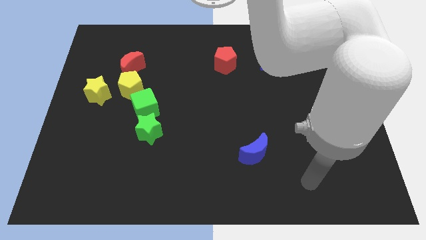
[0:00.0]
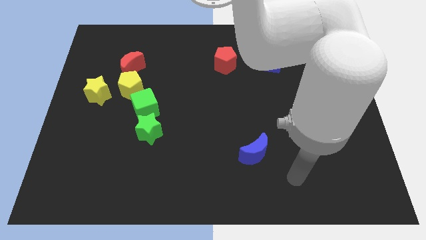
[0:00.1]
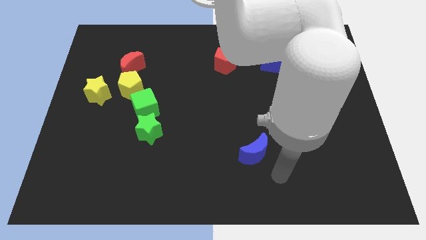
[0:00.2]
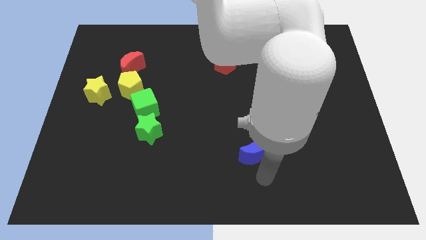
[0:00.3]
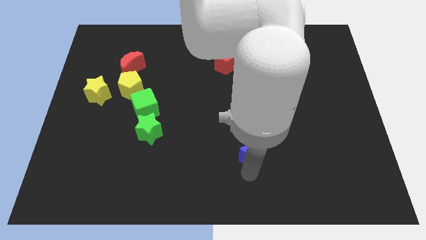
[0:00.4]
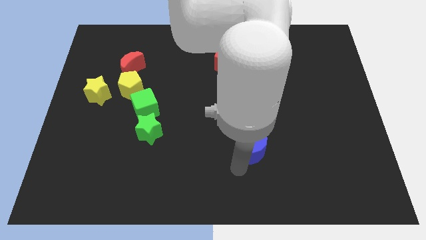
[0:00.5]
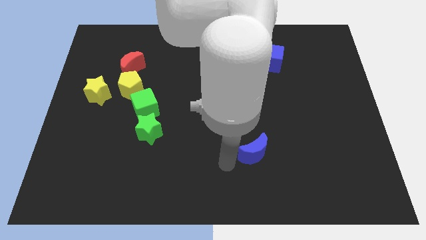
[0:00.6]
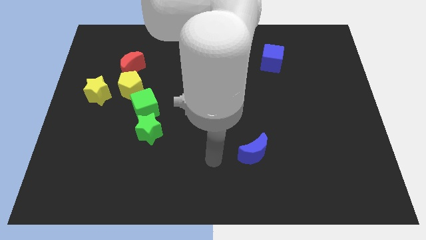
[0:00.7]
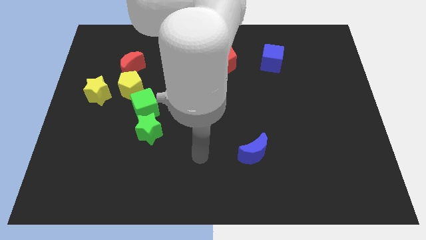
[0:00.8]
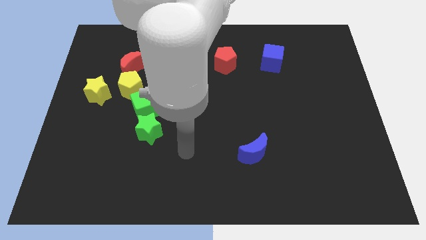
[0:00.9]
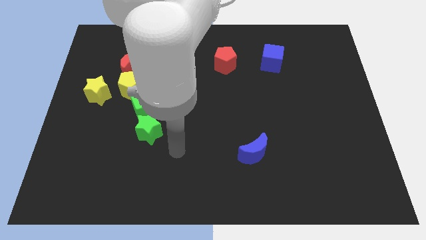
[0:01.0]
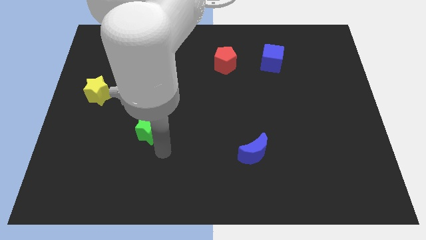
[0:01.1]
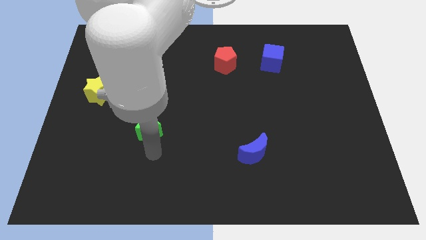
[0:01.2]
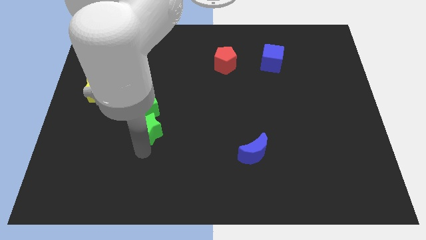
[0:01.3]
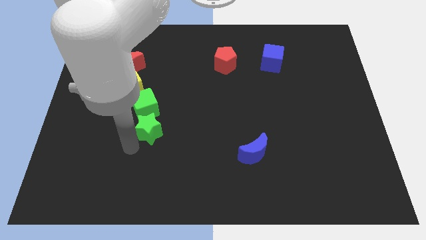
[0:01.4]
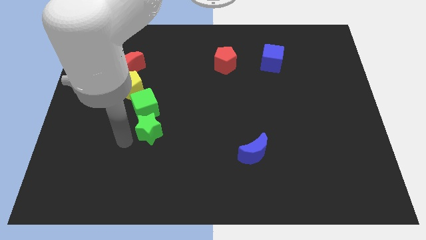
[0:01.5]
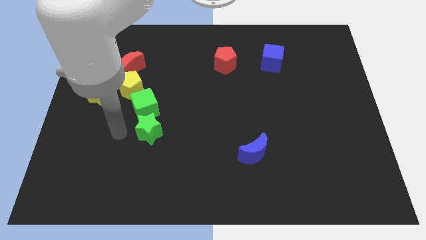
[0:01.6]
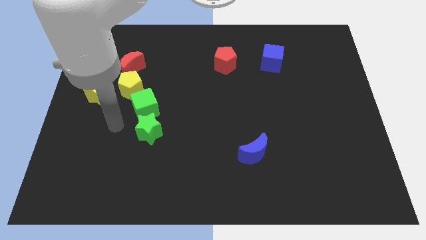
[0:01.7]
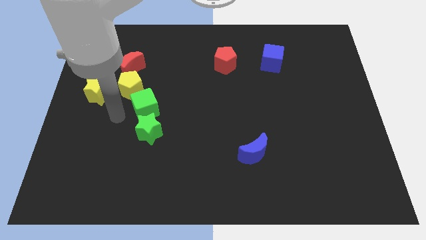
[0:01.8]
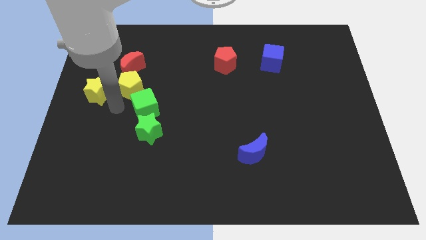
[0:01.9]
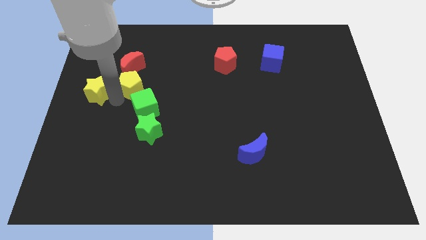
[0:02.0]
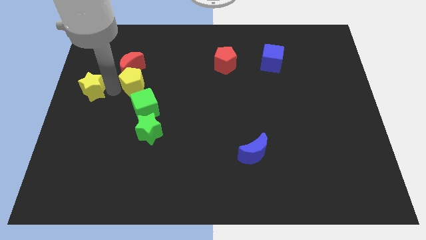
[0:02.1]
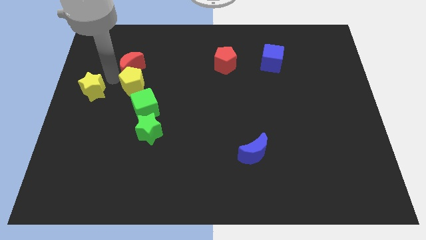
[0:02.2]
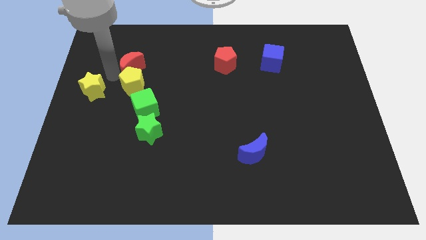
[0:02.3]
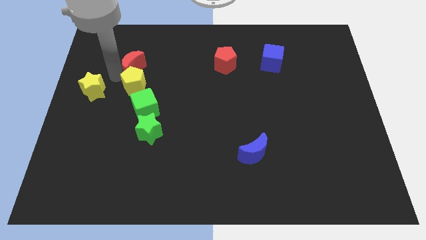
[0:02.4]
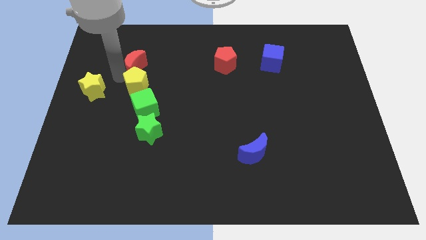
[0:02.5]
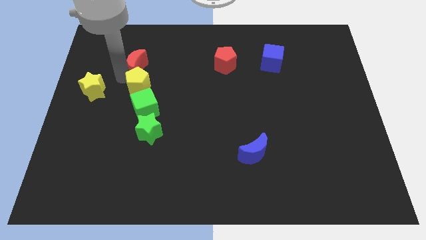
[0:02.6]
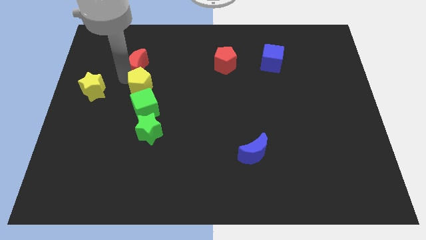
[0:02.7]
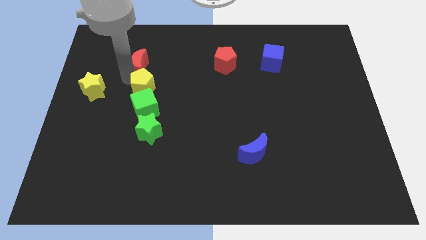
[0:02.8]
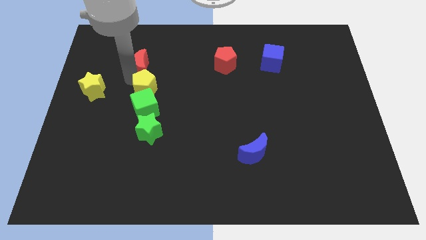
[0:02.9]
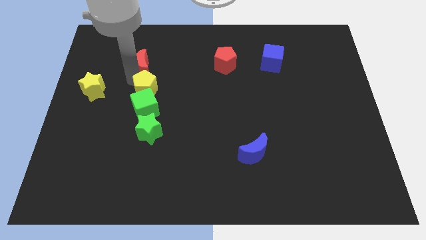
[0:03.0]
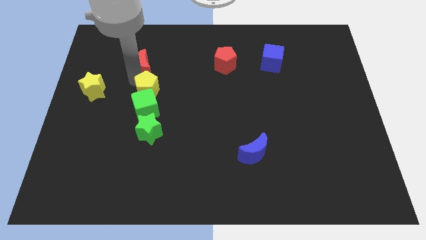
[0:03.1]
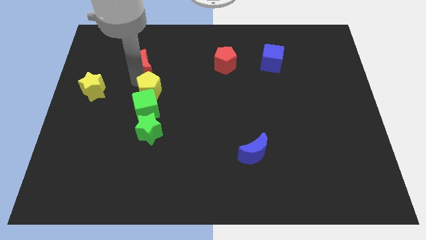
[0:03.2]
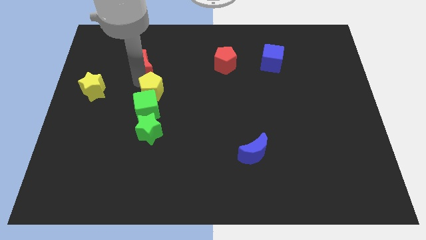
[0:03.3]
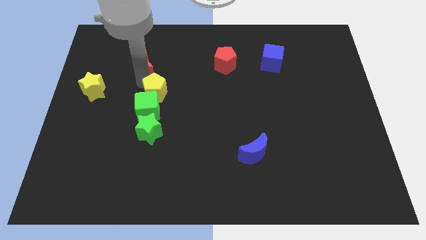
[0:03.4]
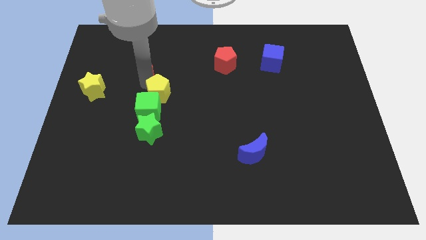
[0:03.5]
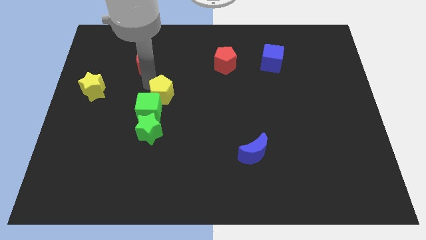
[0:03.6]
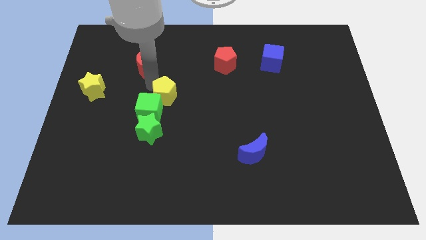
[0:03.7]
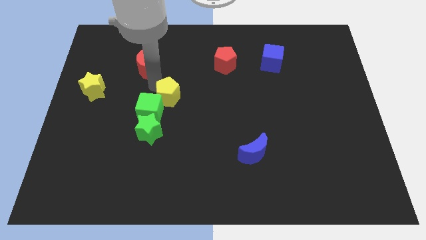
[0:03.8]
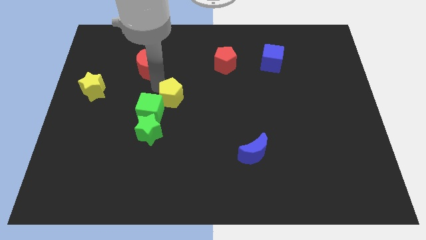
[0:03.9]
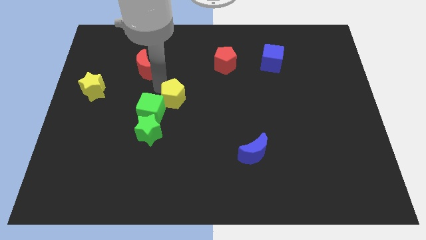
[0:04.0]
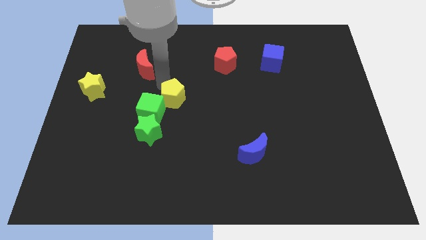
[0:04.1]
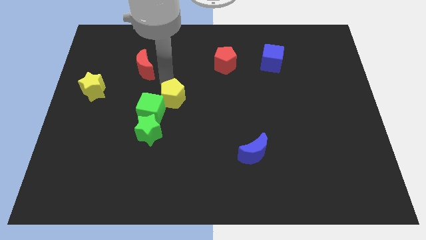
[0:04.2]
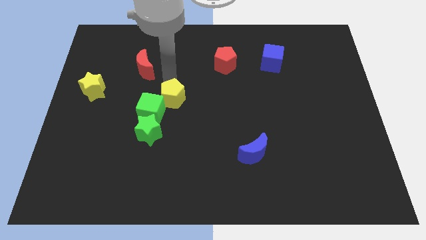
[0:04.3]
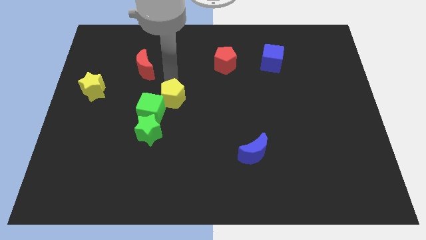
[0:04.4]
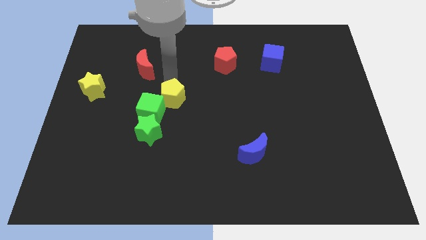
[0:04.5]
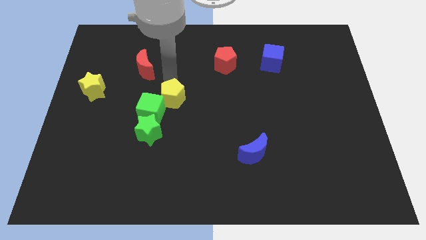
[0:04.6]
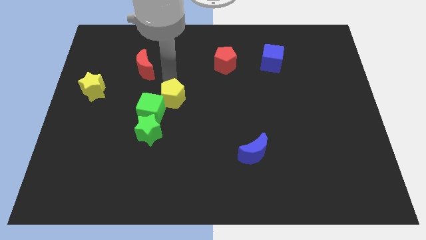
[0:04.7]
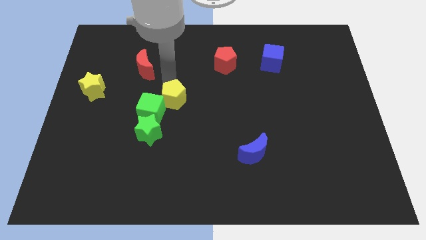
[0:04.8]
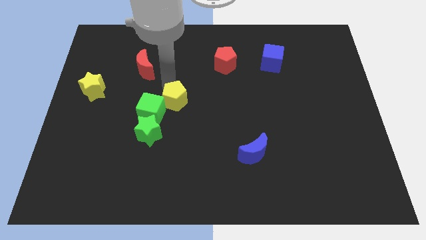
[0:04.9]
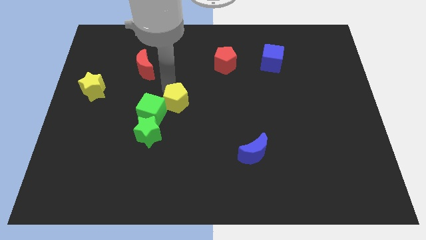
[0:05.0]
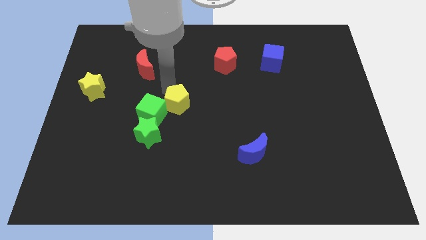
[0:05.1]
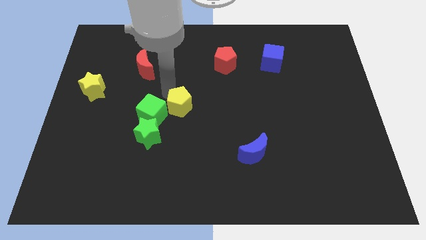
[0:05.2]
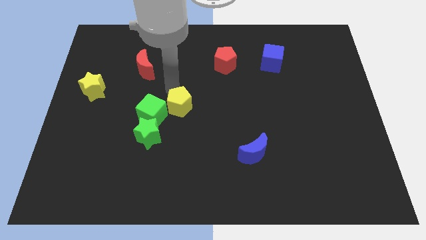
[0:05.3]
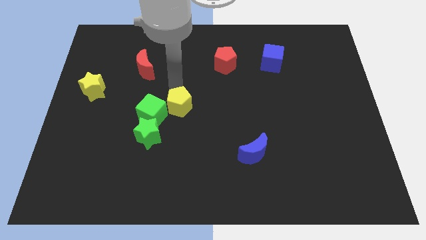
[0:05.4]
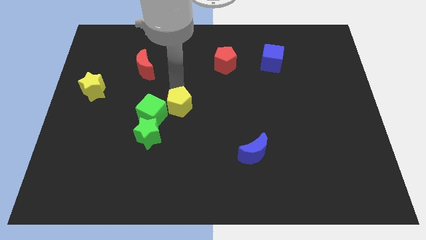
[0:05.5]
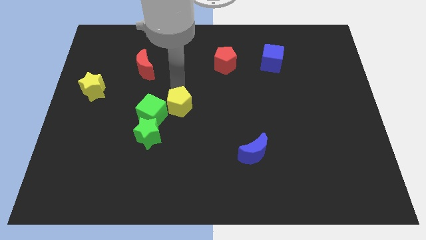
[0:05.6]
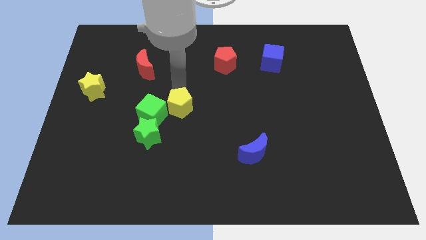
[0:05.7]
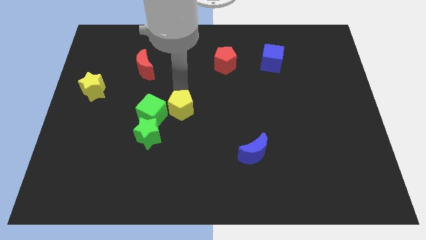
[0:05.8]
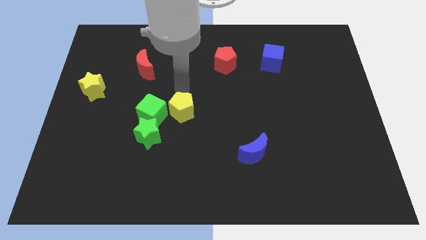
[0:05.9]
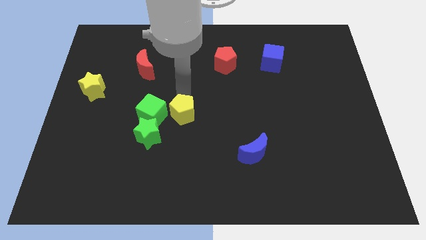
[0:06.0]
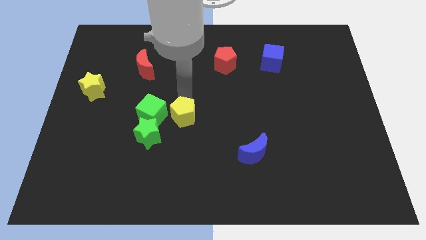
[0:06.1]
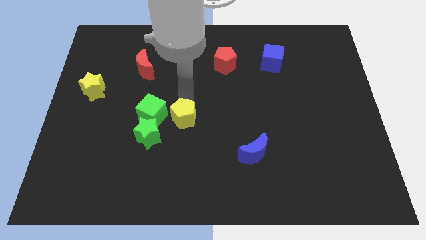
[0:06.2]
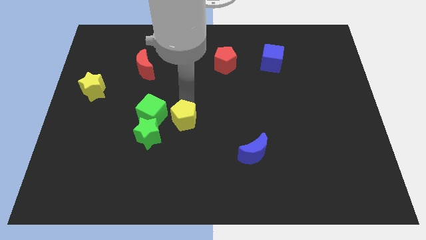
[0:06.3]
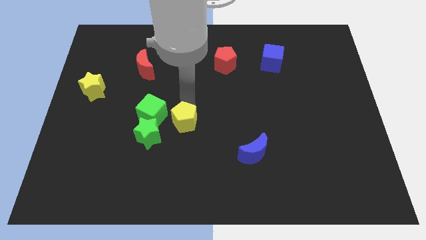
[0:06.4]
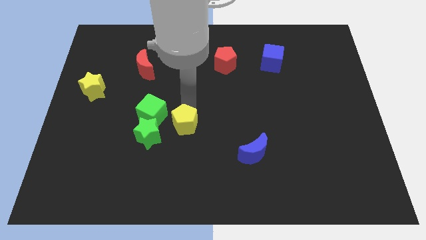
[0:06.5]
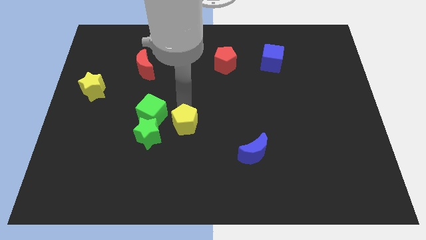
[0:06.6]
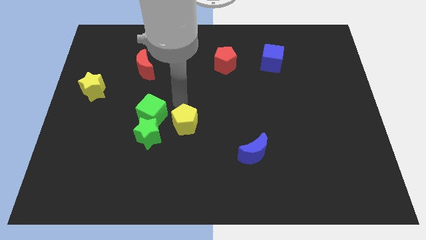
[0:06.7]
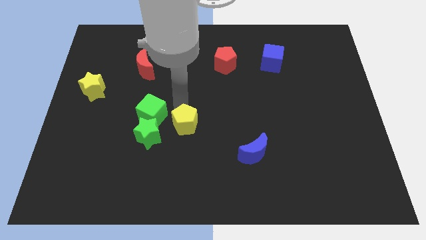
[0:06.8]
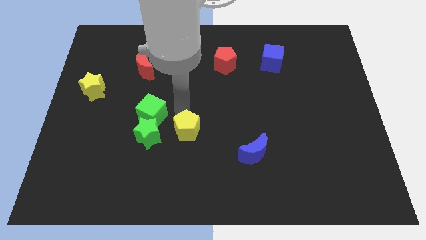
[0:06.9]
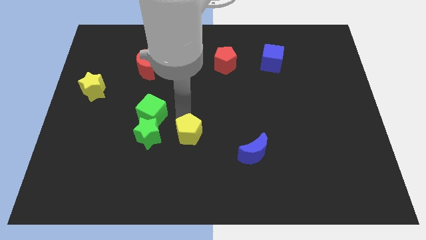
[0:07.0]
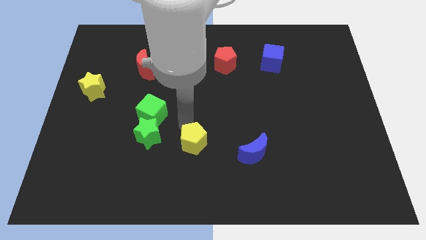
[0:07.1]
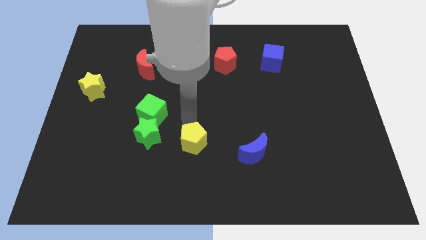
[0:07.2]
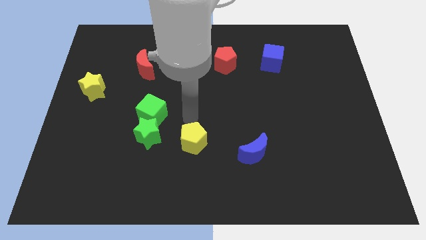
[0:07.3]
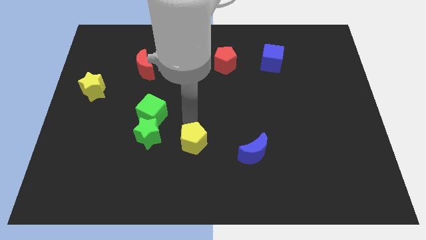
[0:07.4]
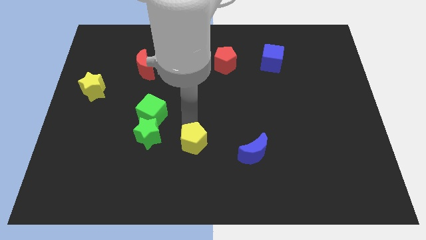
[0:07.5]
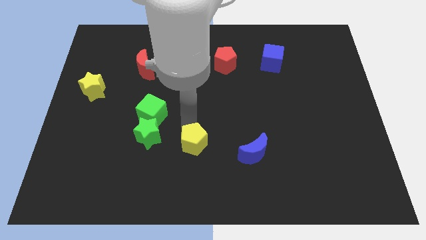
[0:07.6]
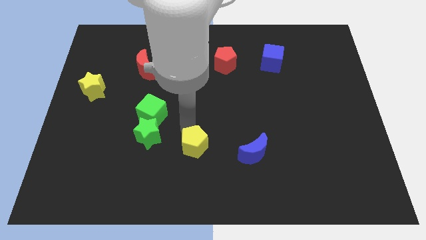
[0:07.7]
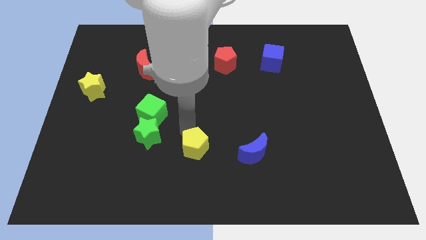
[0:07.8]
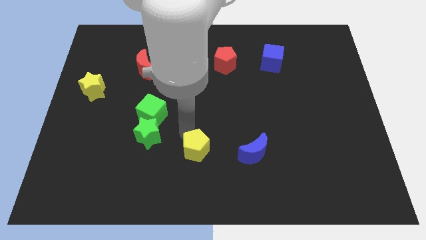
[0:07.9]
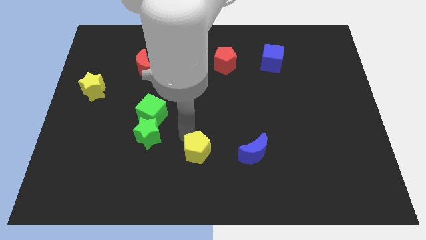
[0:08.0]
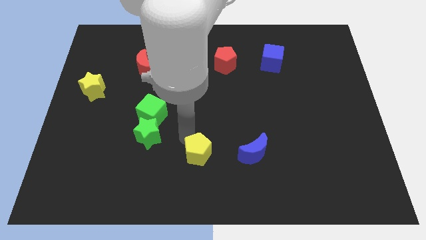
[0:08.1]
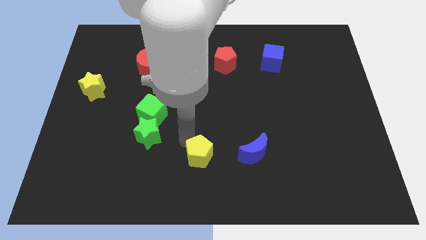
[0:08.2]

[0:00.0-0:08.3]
put the yellow pentagon to the bottom
